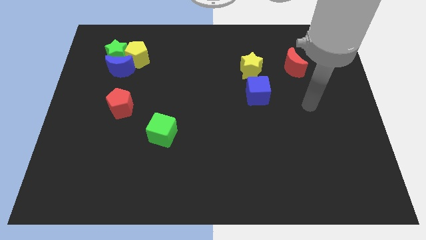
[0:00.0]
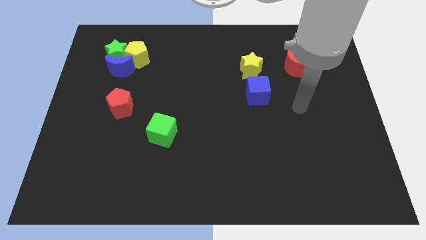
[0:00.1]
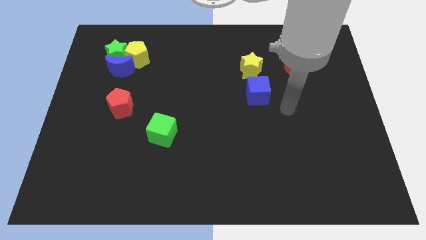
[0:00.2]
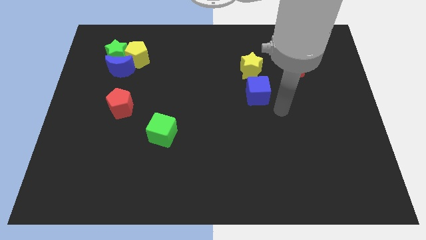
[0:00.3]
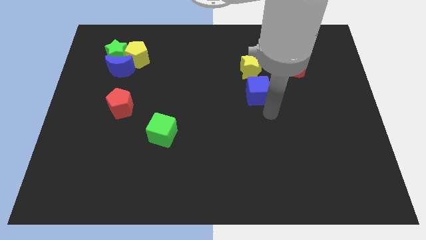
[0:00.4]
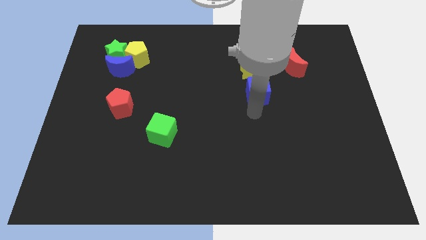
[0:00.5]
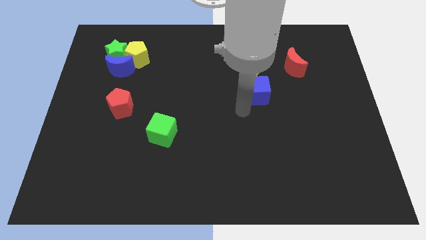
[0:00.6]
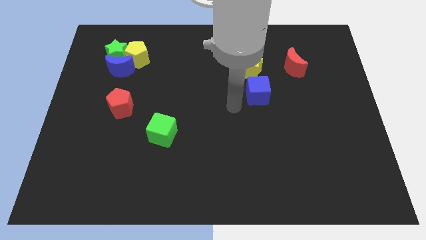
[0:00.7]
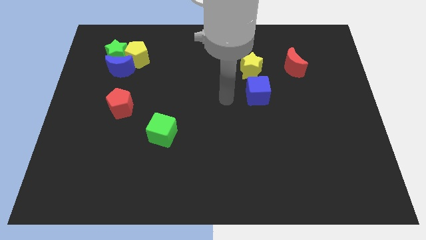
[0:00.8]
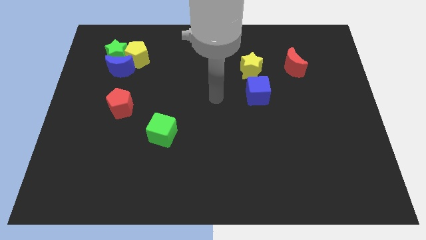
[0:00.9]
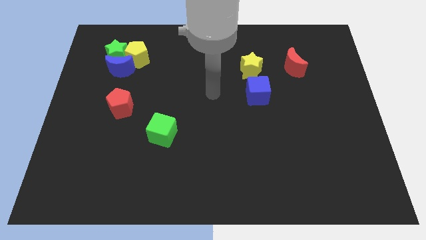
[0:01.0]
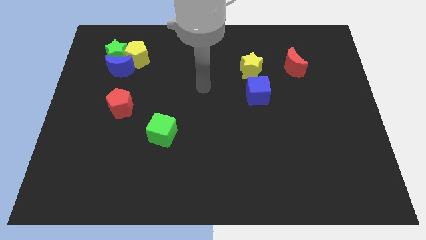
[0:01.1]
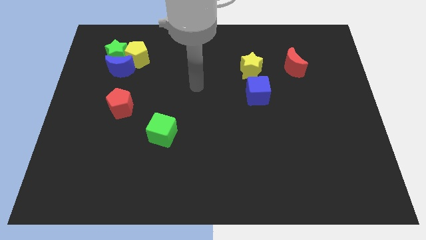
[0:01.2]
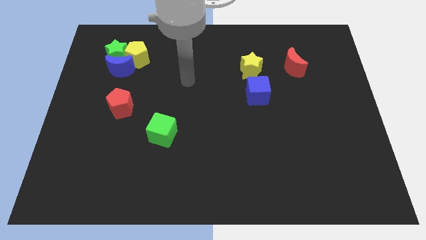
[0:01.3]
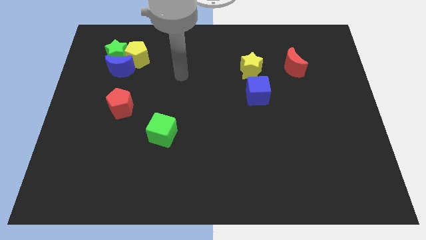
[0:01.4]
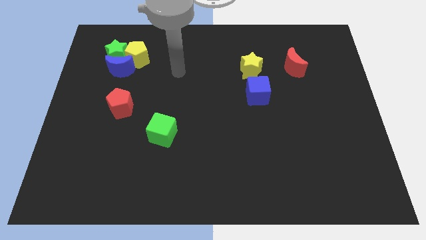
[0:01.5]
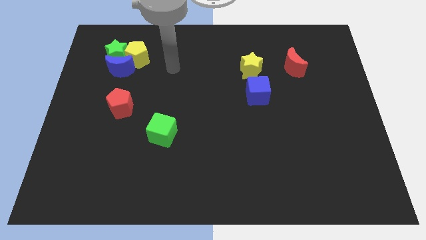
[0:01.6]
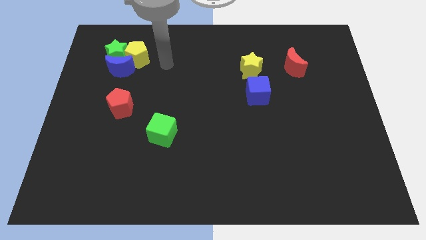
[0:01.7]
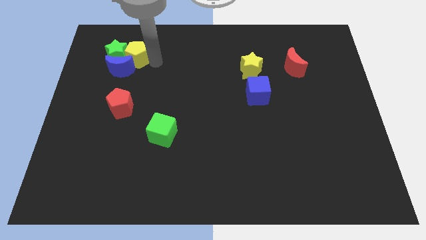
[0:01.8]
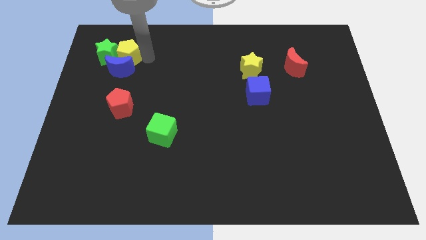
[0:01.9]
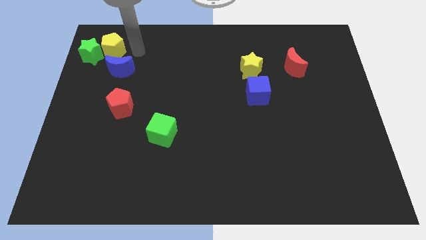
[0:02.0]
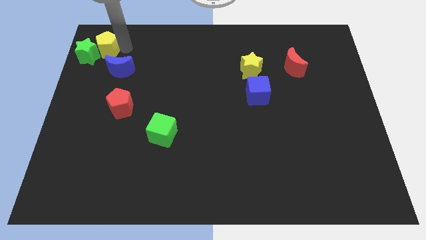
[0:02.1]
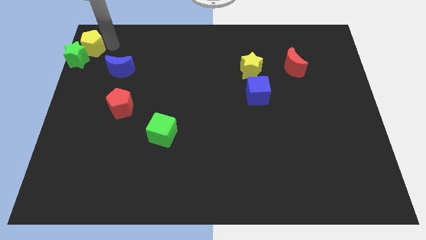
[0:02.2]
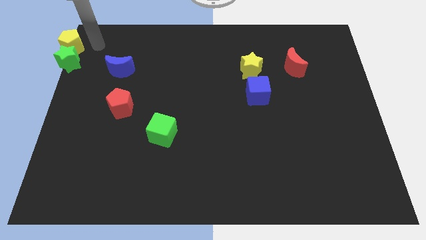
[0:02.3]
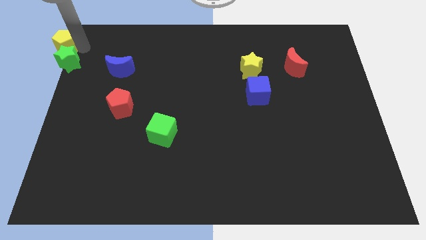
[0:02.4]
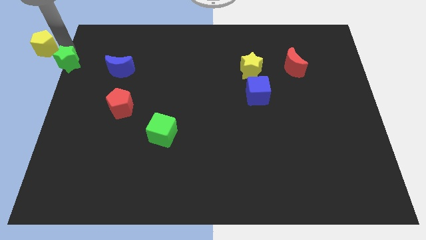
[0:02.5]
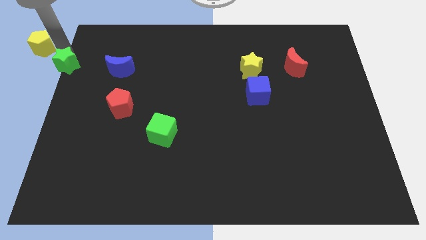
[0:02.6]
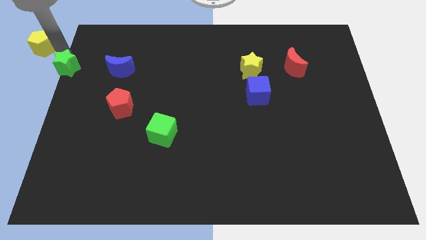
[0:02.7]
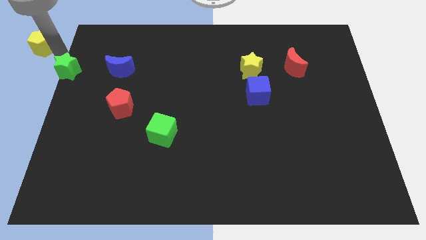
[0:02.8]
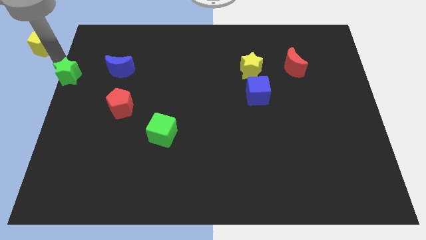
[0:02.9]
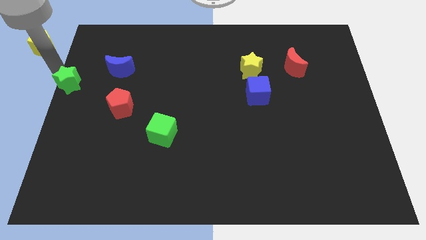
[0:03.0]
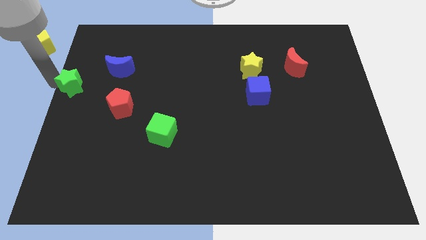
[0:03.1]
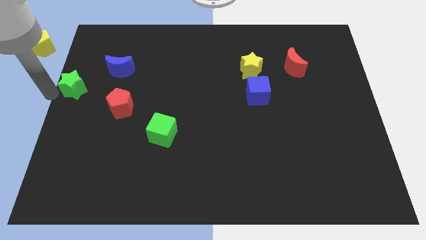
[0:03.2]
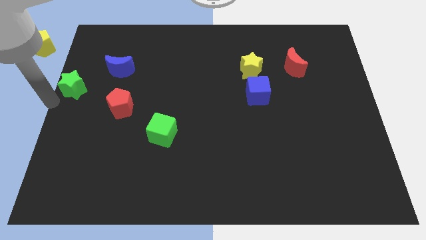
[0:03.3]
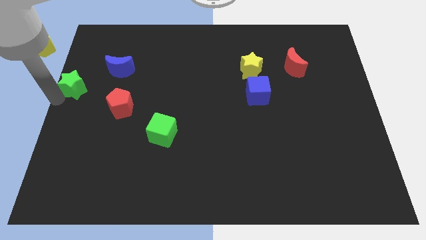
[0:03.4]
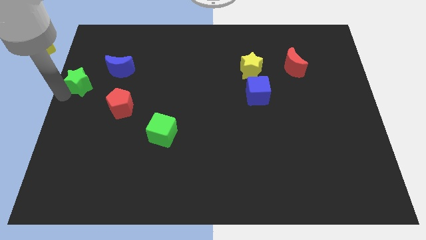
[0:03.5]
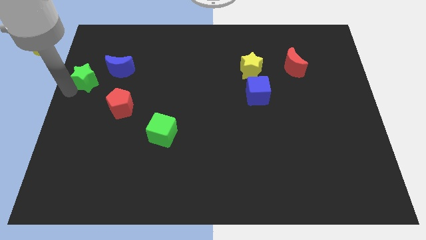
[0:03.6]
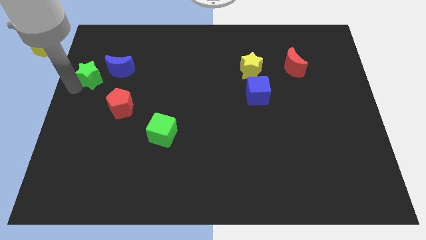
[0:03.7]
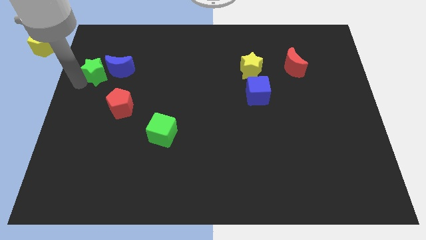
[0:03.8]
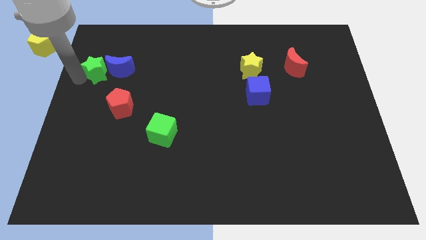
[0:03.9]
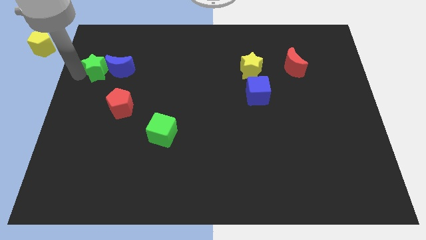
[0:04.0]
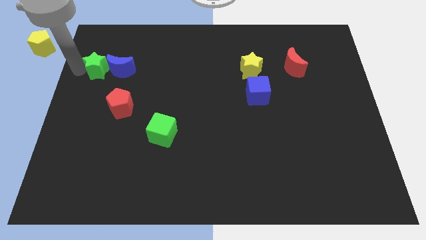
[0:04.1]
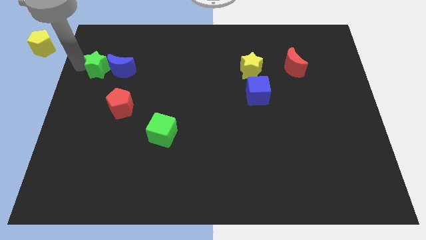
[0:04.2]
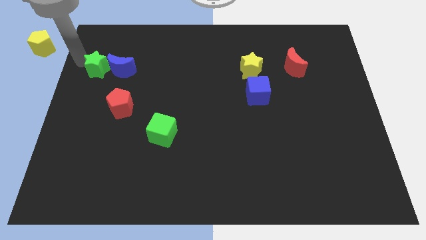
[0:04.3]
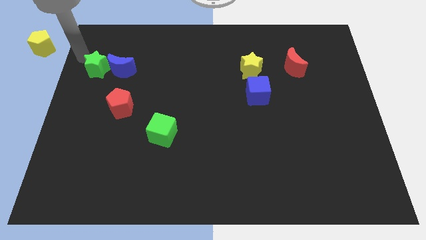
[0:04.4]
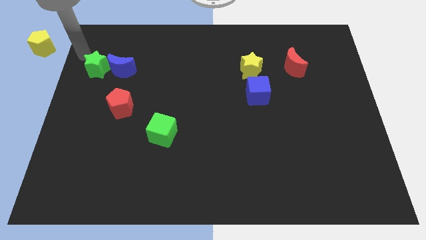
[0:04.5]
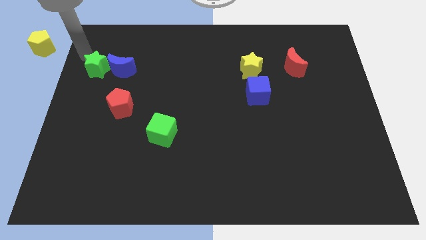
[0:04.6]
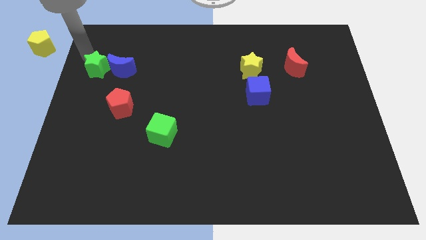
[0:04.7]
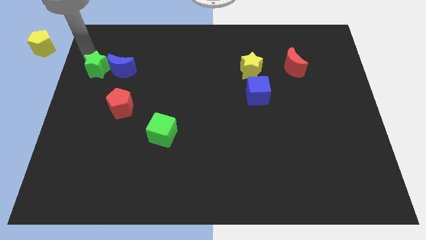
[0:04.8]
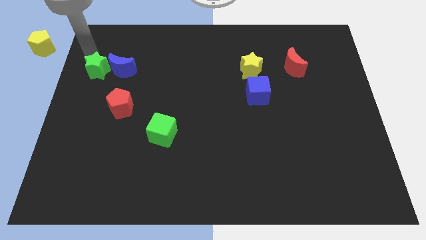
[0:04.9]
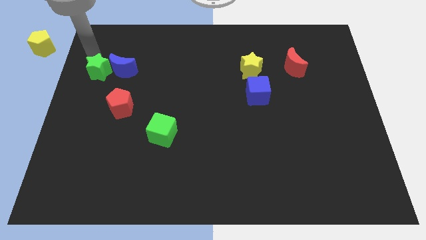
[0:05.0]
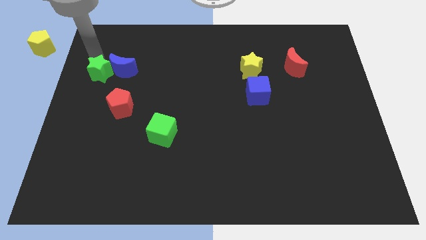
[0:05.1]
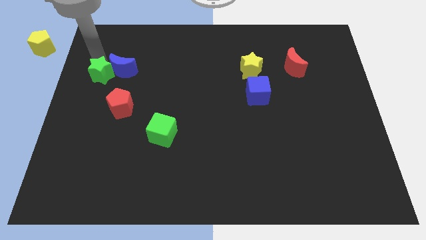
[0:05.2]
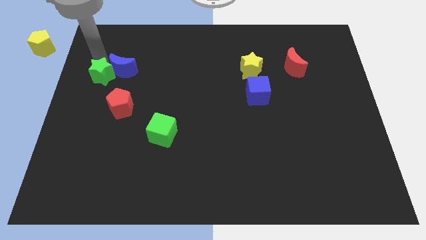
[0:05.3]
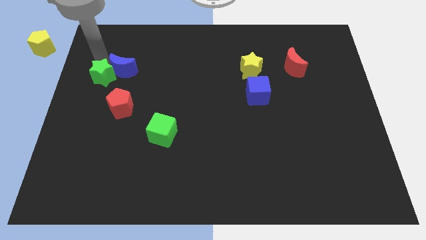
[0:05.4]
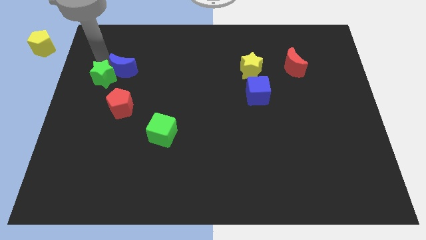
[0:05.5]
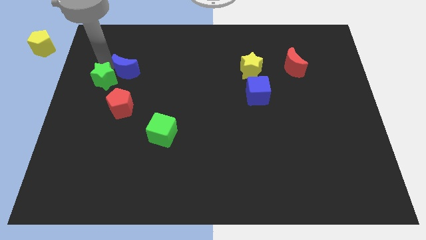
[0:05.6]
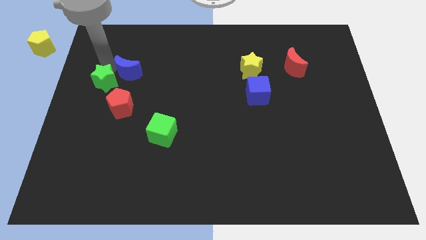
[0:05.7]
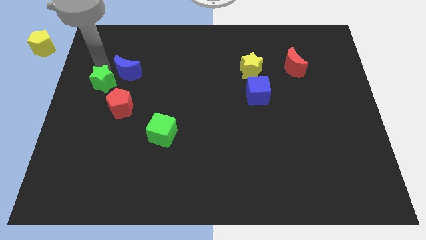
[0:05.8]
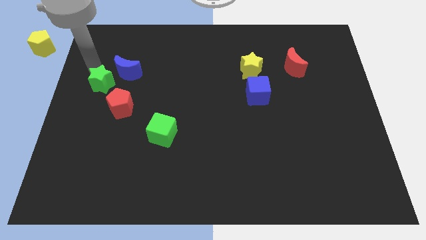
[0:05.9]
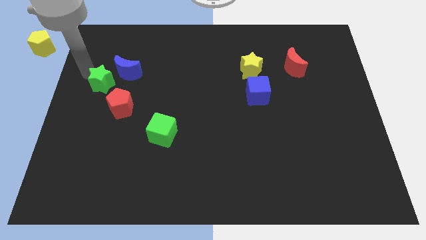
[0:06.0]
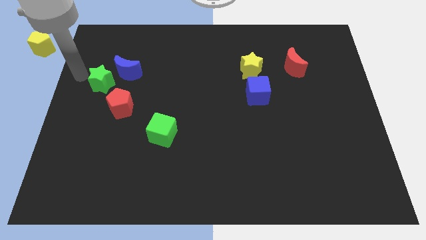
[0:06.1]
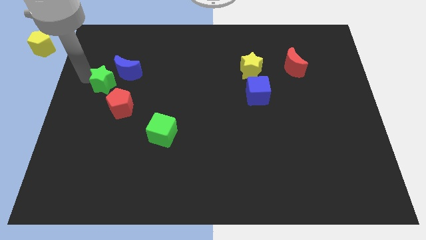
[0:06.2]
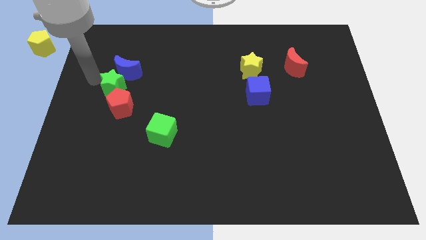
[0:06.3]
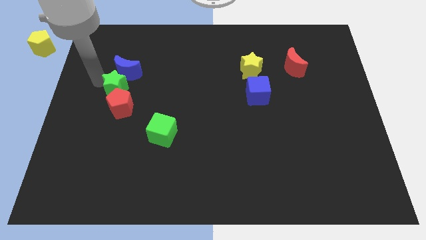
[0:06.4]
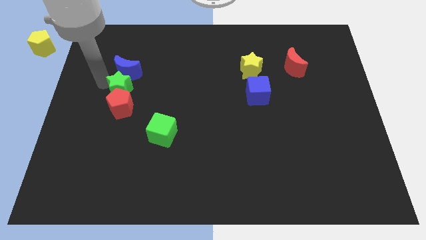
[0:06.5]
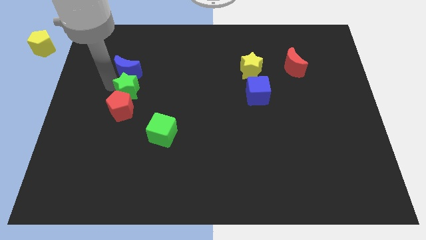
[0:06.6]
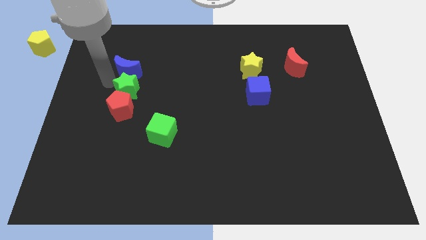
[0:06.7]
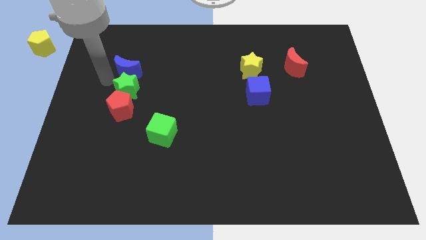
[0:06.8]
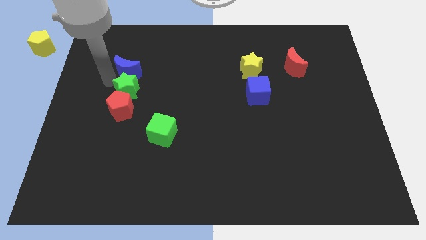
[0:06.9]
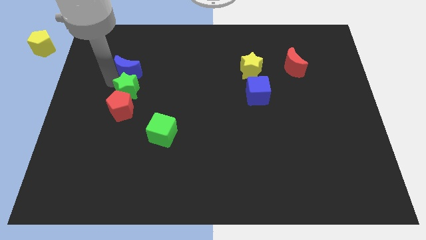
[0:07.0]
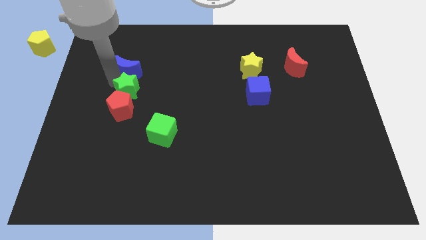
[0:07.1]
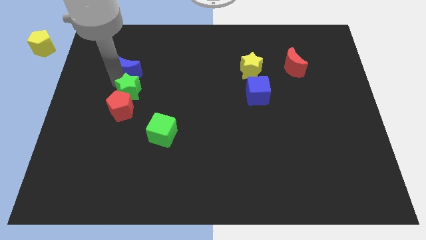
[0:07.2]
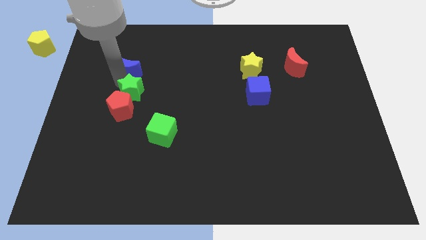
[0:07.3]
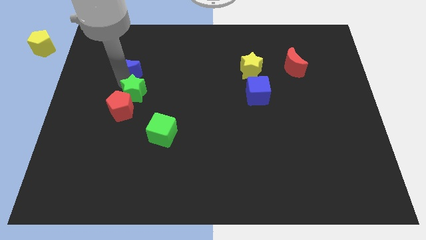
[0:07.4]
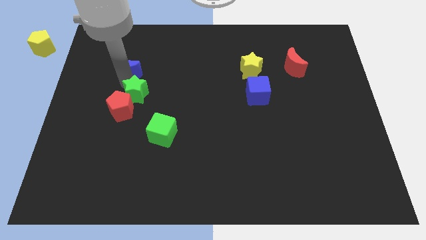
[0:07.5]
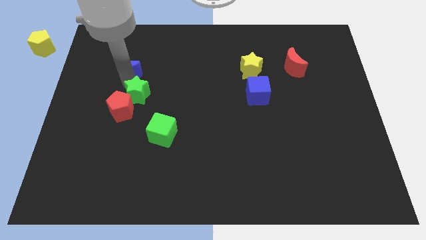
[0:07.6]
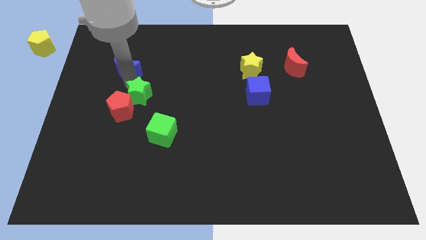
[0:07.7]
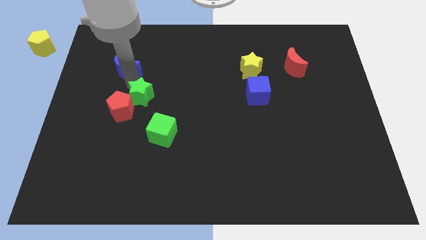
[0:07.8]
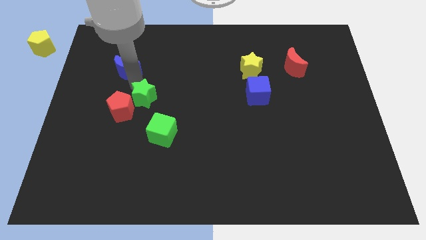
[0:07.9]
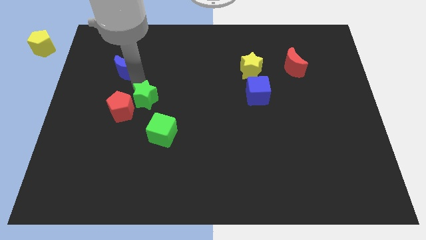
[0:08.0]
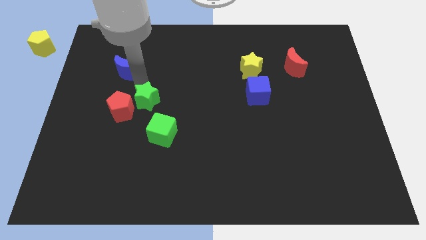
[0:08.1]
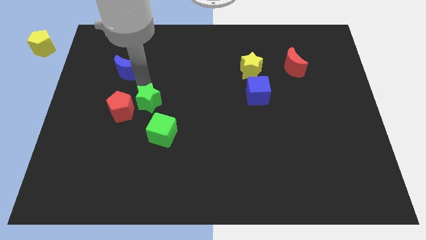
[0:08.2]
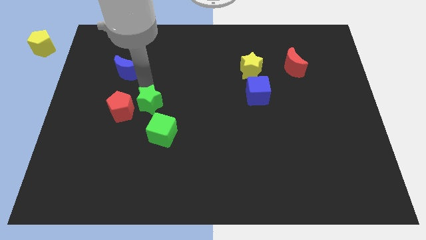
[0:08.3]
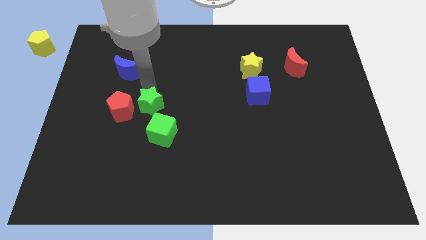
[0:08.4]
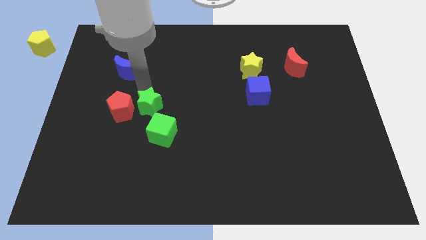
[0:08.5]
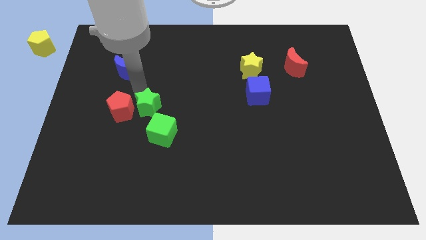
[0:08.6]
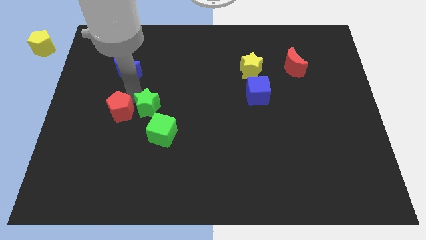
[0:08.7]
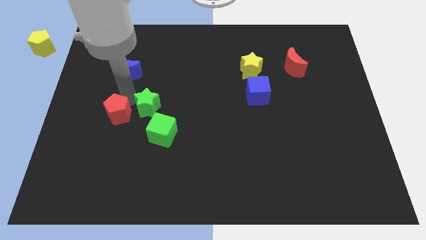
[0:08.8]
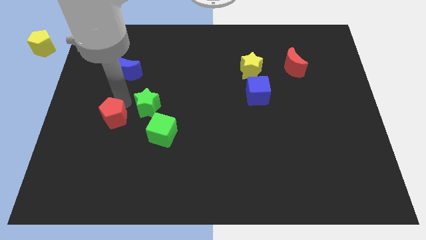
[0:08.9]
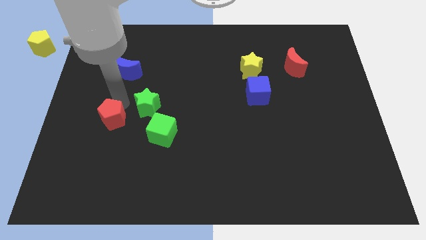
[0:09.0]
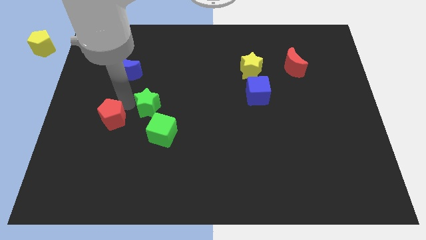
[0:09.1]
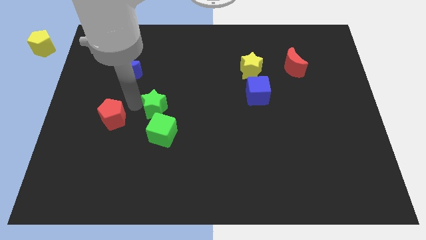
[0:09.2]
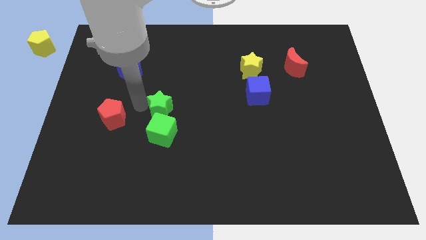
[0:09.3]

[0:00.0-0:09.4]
move the green star downwards and then to the right
